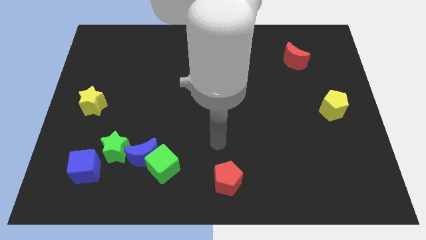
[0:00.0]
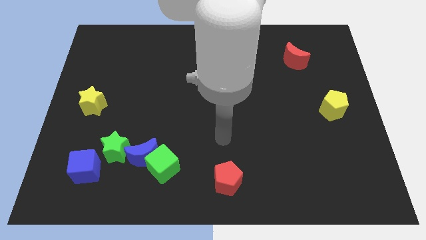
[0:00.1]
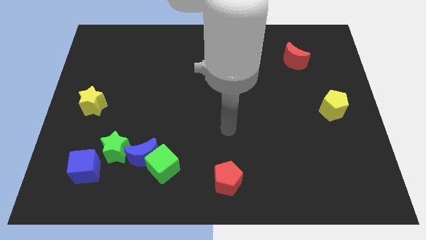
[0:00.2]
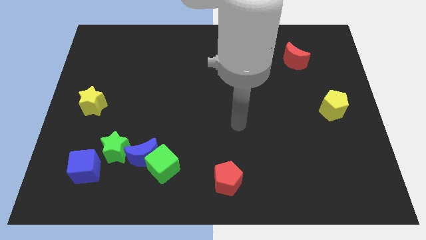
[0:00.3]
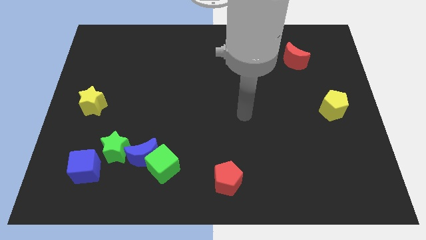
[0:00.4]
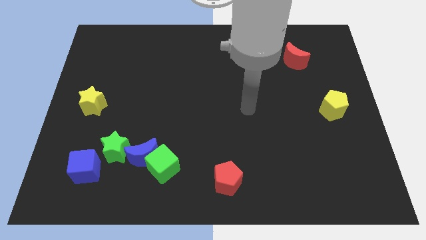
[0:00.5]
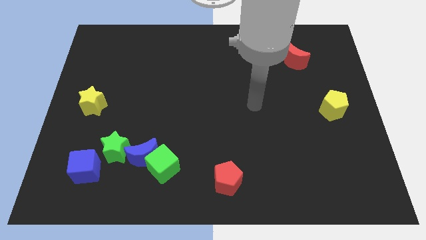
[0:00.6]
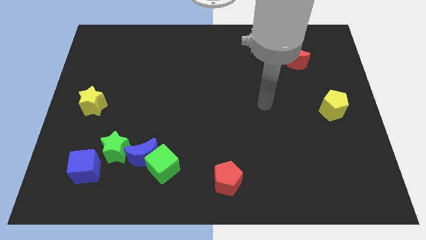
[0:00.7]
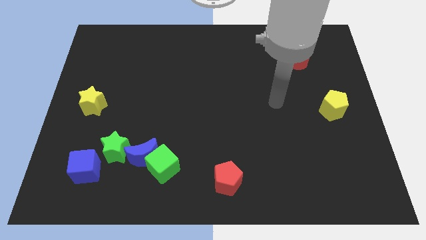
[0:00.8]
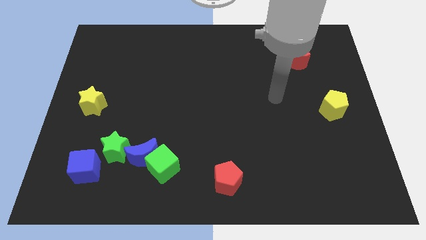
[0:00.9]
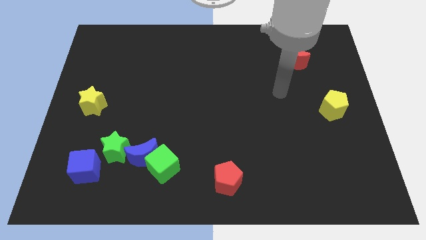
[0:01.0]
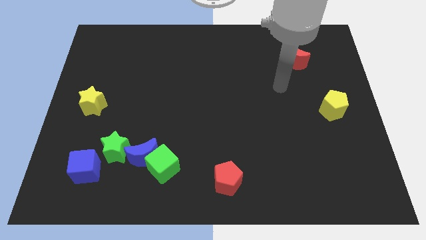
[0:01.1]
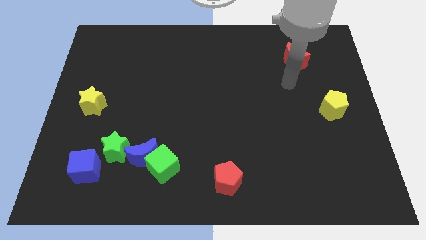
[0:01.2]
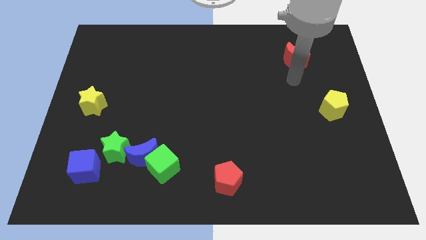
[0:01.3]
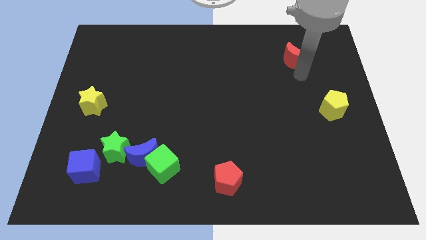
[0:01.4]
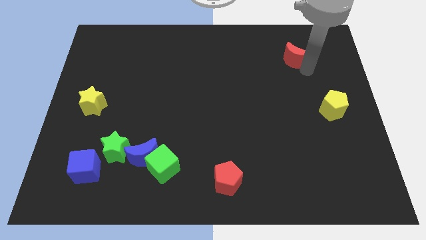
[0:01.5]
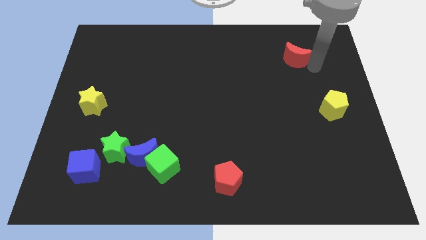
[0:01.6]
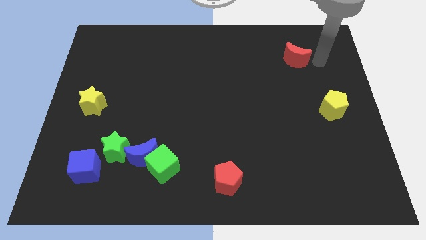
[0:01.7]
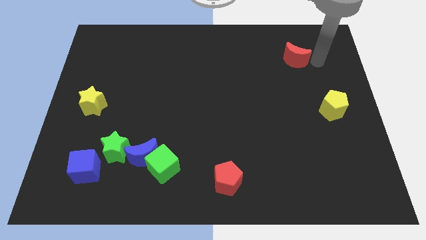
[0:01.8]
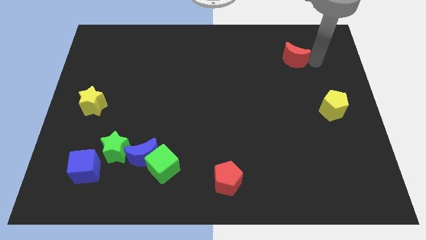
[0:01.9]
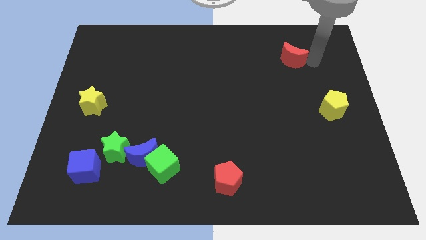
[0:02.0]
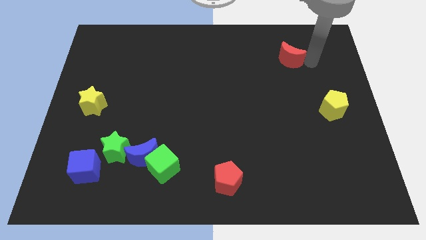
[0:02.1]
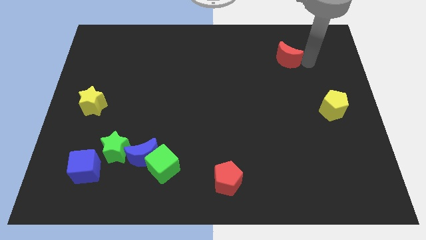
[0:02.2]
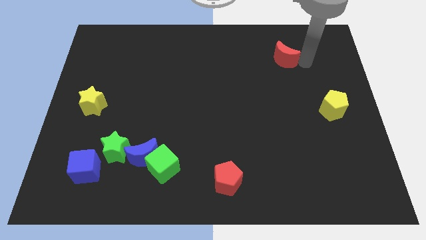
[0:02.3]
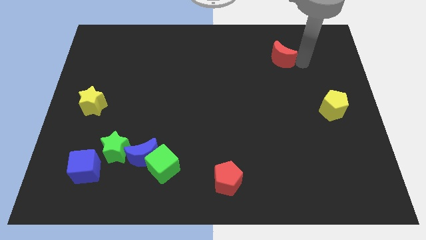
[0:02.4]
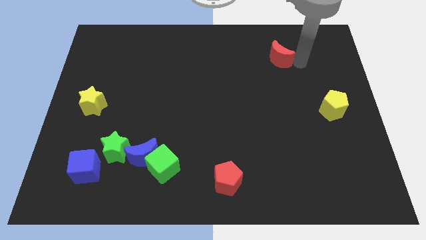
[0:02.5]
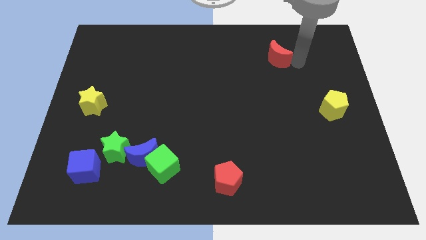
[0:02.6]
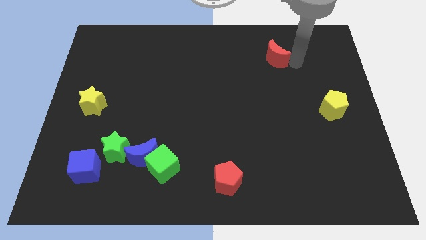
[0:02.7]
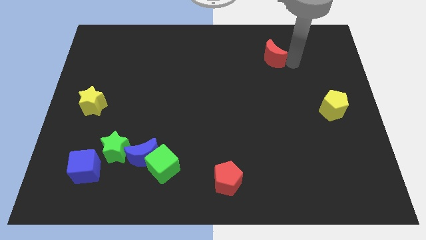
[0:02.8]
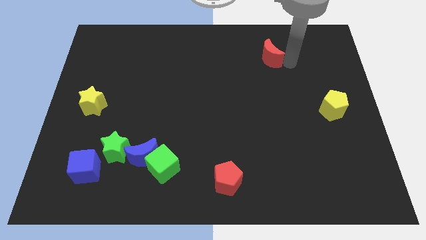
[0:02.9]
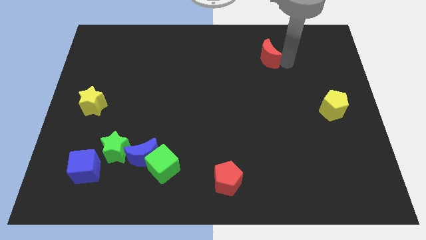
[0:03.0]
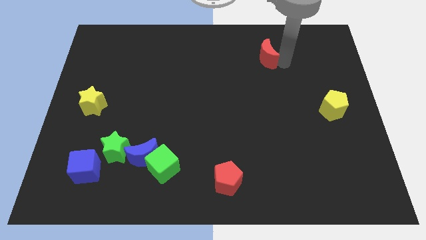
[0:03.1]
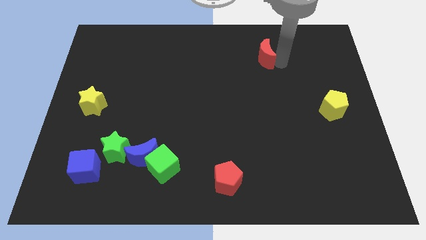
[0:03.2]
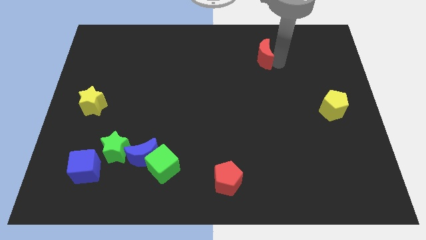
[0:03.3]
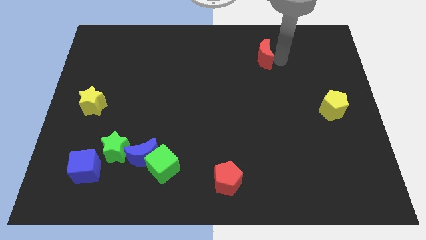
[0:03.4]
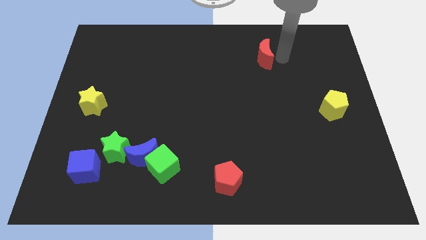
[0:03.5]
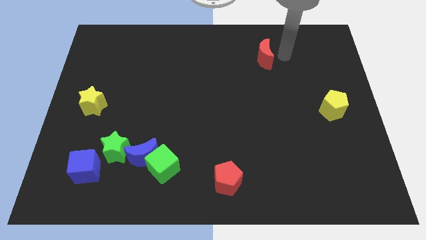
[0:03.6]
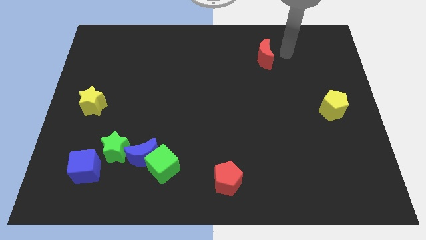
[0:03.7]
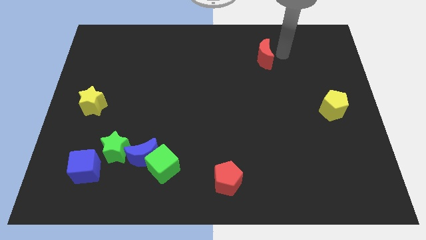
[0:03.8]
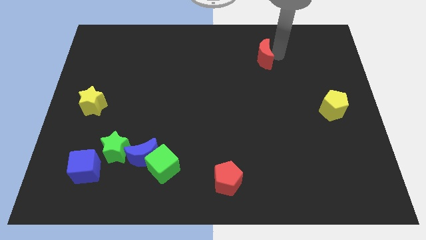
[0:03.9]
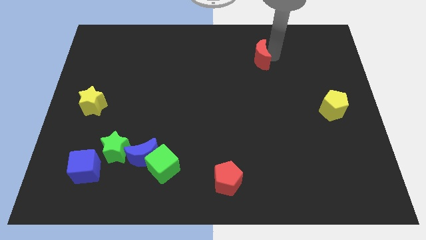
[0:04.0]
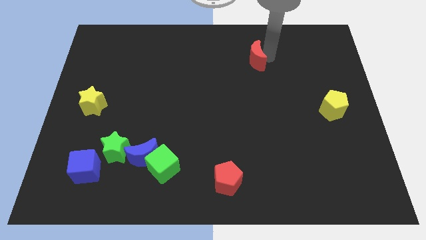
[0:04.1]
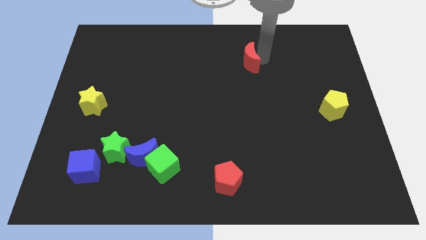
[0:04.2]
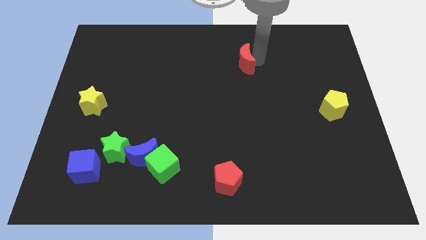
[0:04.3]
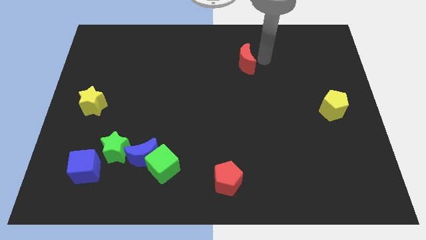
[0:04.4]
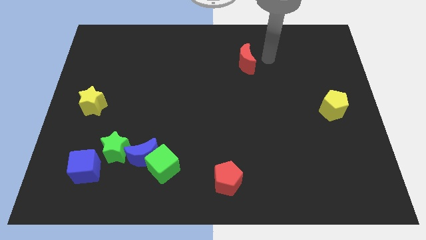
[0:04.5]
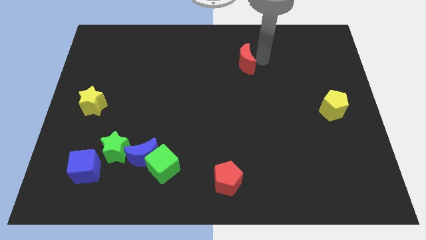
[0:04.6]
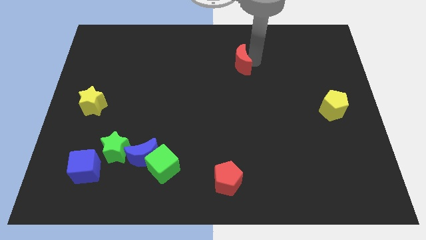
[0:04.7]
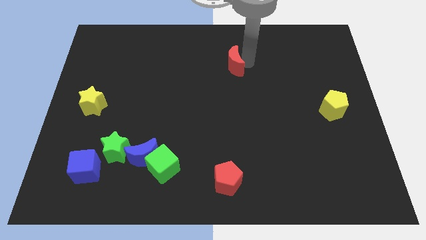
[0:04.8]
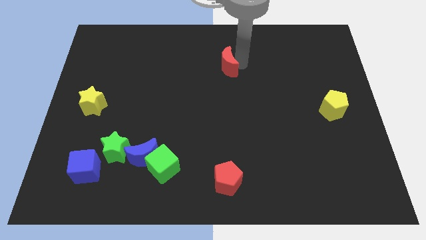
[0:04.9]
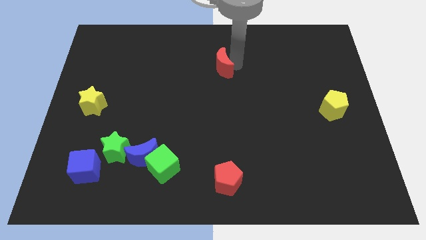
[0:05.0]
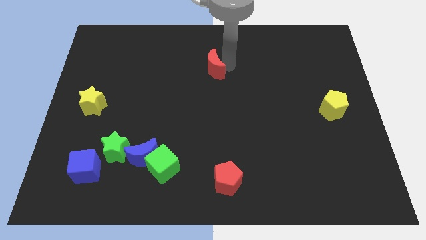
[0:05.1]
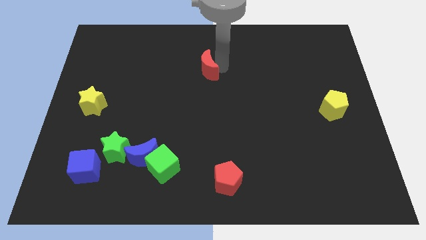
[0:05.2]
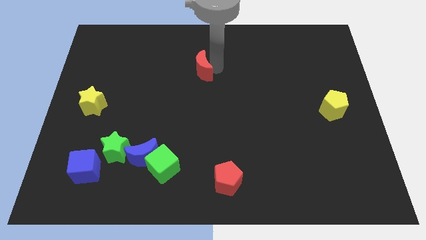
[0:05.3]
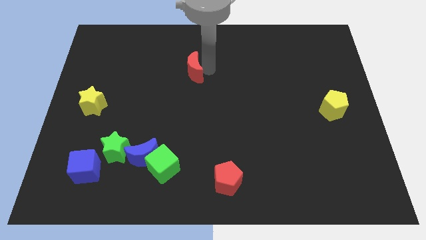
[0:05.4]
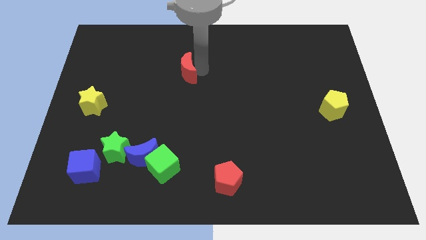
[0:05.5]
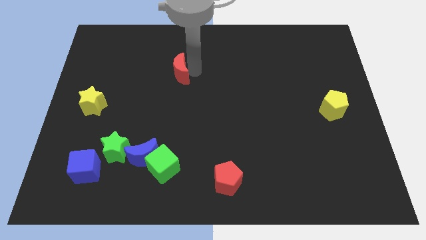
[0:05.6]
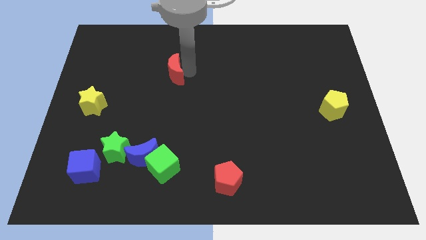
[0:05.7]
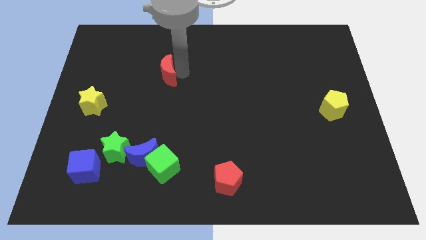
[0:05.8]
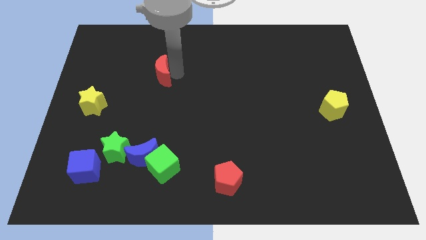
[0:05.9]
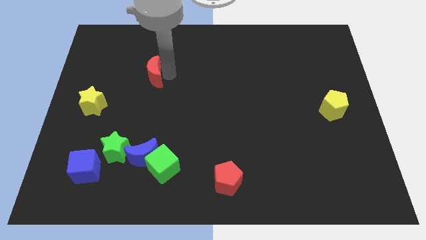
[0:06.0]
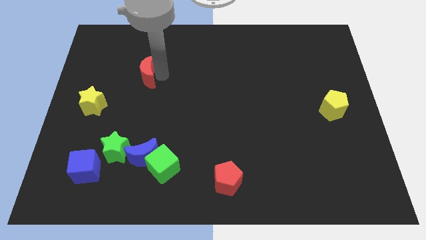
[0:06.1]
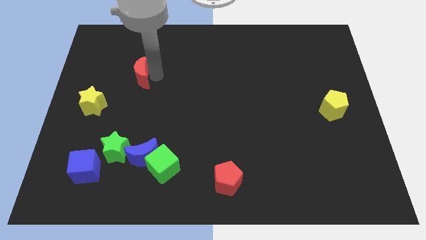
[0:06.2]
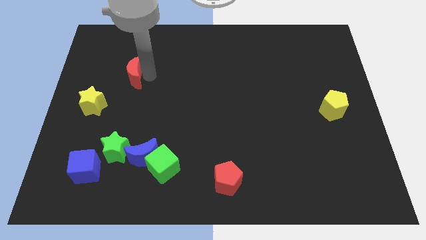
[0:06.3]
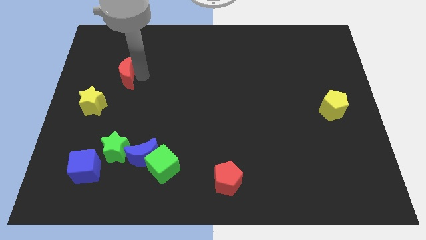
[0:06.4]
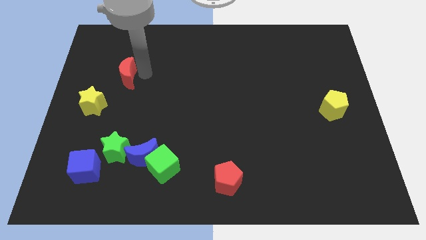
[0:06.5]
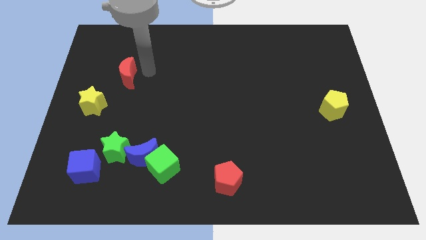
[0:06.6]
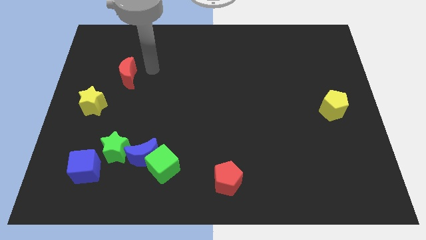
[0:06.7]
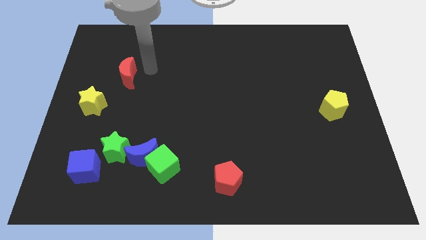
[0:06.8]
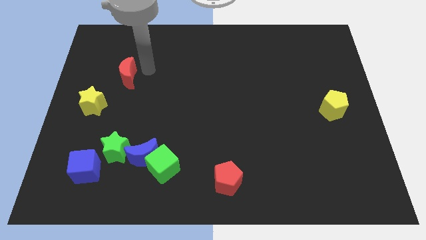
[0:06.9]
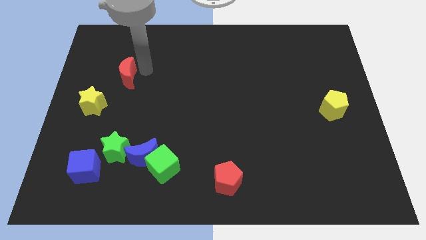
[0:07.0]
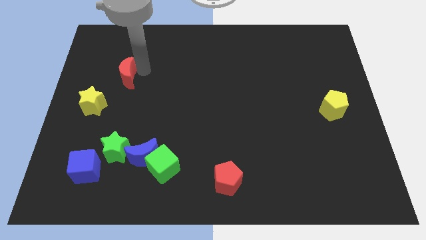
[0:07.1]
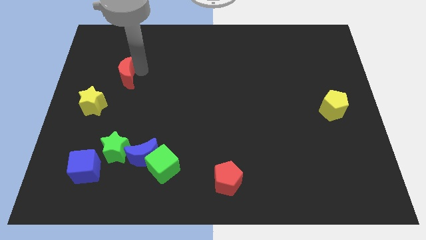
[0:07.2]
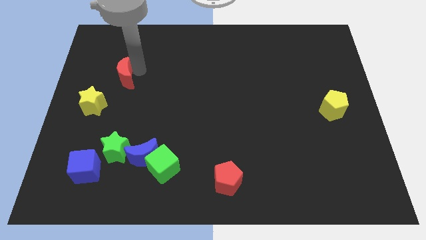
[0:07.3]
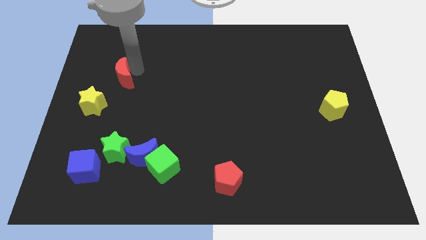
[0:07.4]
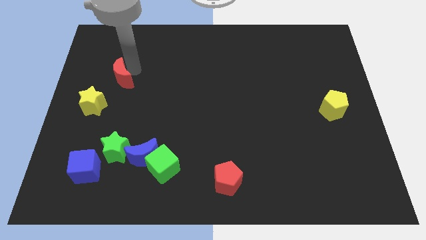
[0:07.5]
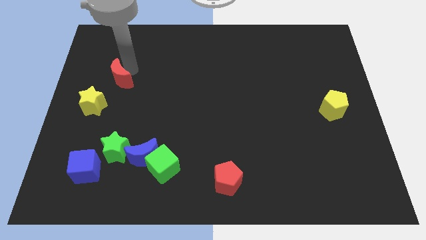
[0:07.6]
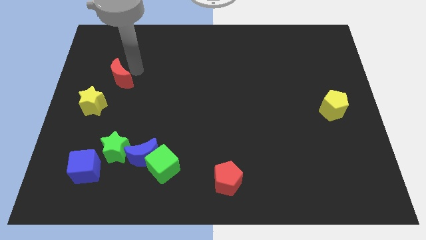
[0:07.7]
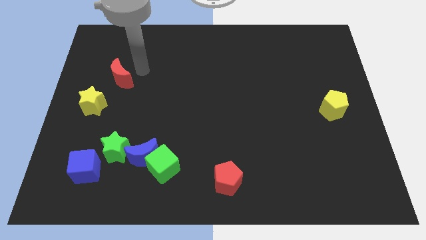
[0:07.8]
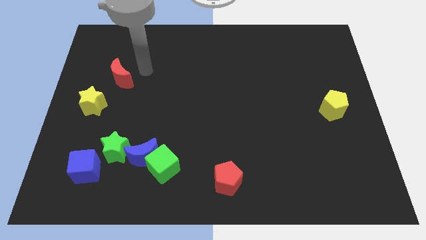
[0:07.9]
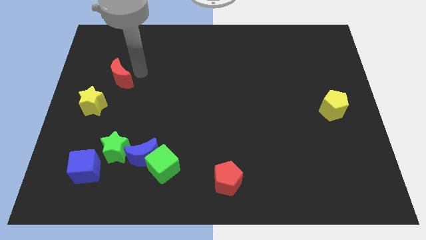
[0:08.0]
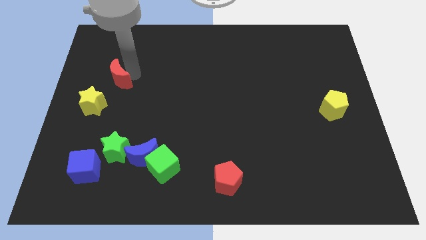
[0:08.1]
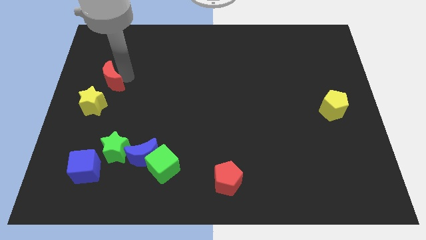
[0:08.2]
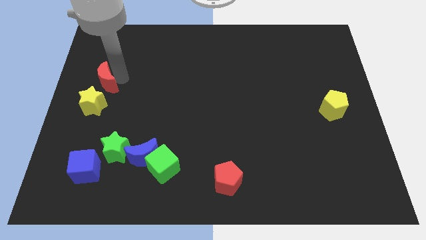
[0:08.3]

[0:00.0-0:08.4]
move the red moon to the left side
